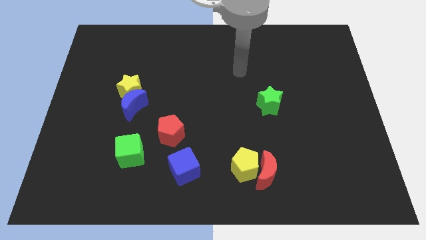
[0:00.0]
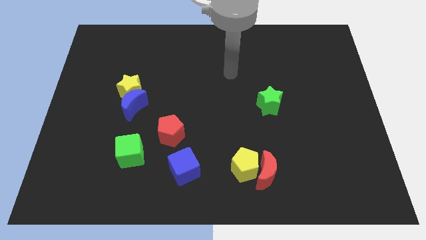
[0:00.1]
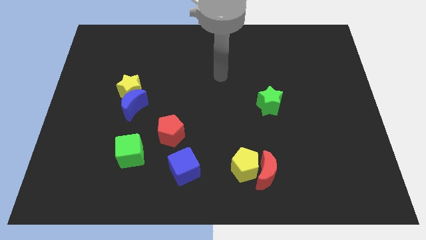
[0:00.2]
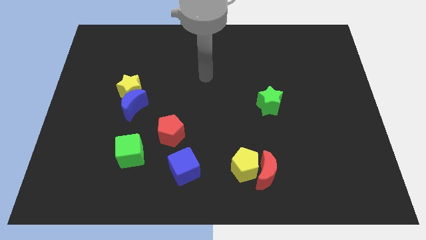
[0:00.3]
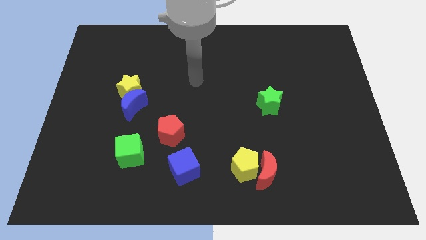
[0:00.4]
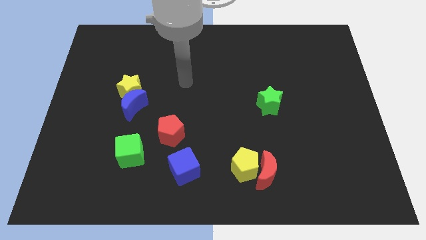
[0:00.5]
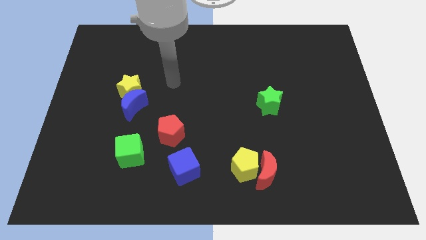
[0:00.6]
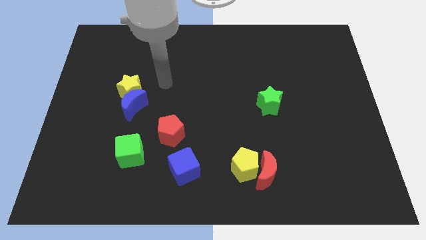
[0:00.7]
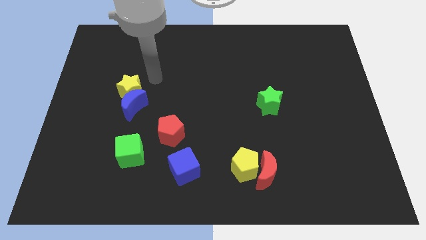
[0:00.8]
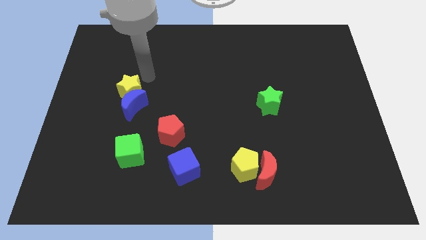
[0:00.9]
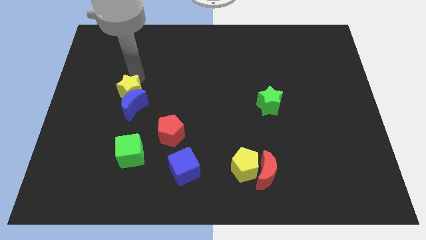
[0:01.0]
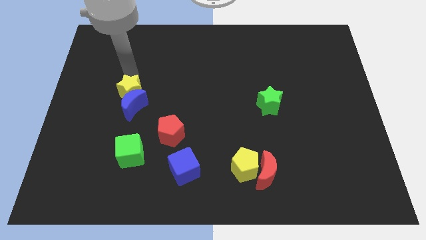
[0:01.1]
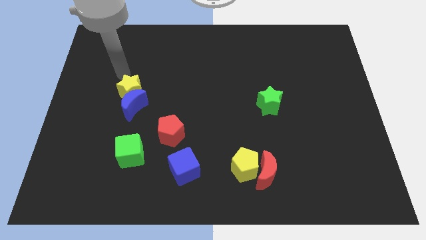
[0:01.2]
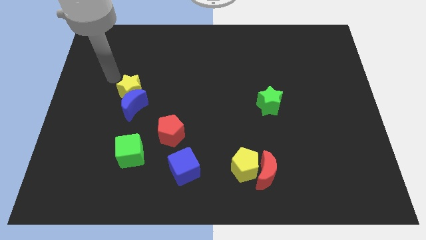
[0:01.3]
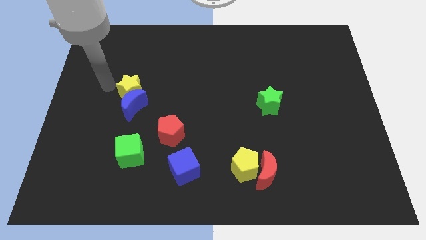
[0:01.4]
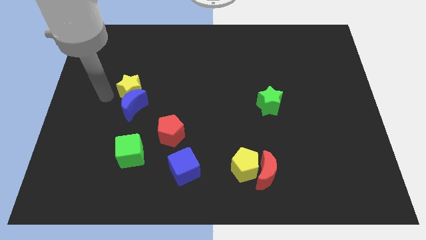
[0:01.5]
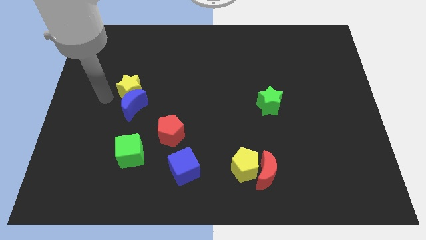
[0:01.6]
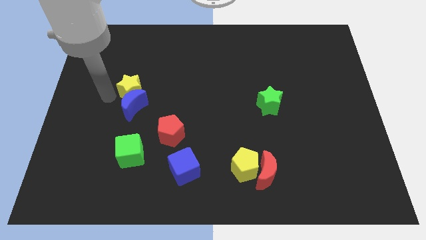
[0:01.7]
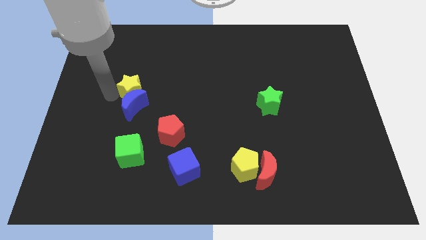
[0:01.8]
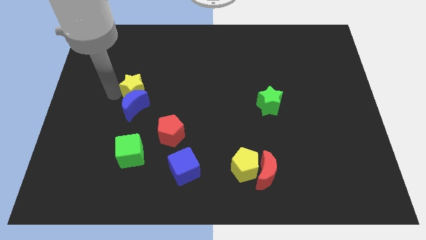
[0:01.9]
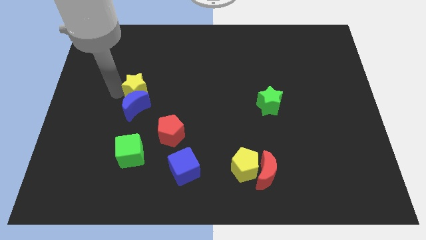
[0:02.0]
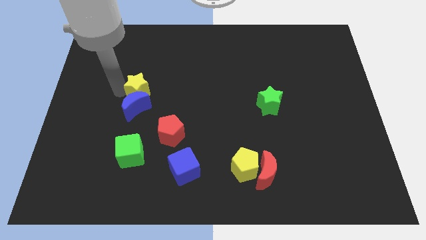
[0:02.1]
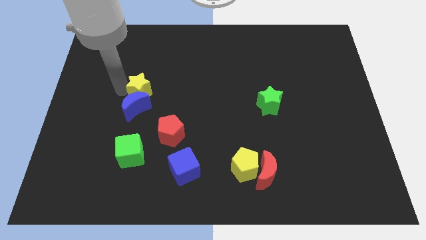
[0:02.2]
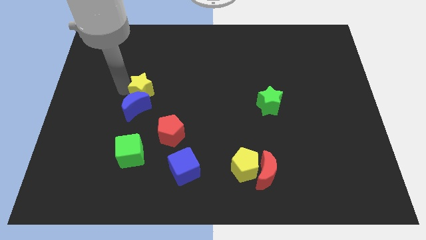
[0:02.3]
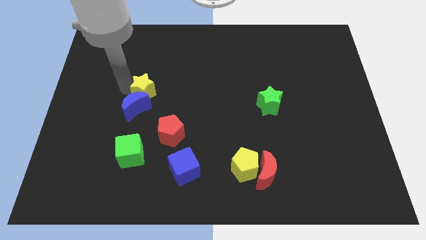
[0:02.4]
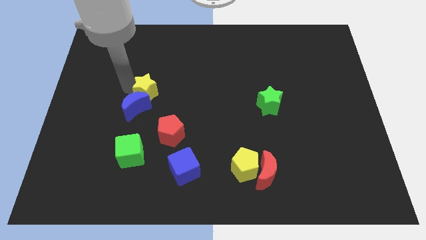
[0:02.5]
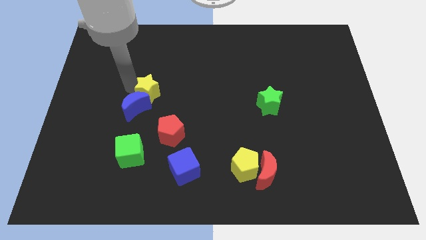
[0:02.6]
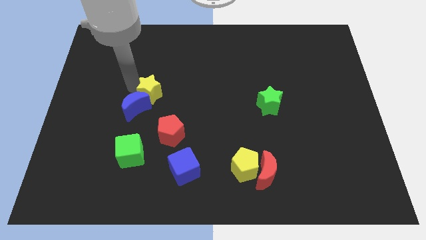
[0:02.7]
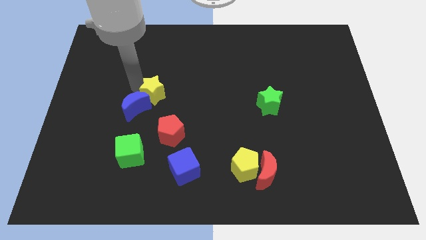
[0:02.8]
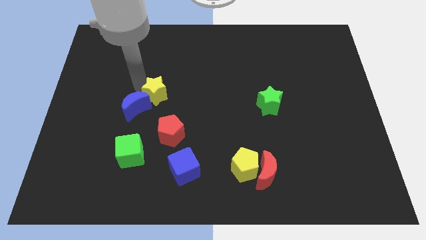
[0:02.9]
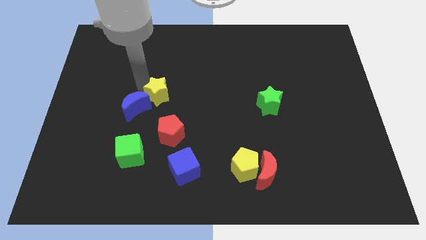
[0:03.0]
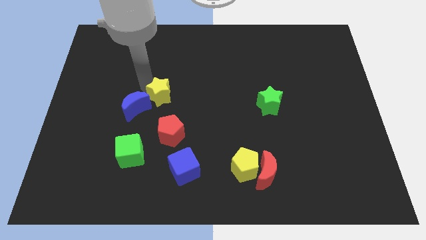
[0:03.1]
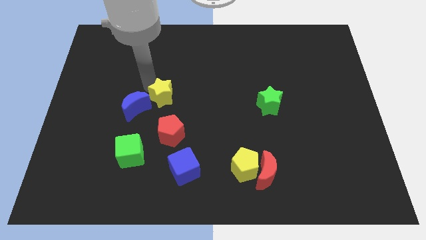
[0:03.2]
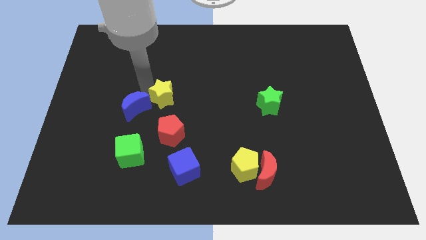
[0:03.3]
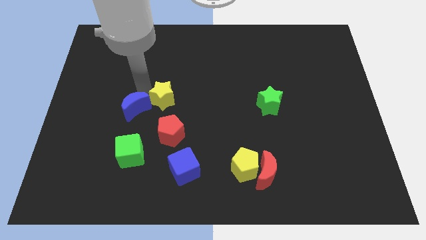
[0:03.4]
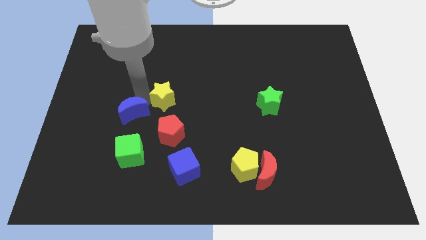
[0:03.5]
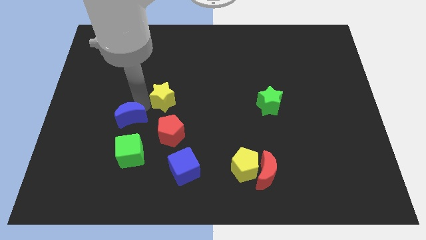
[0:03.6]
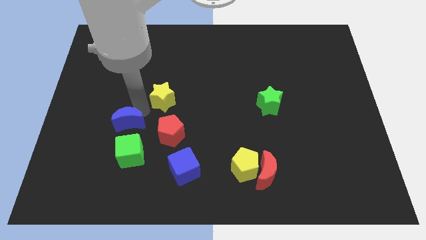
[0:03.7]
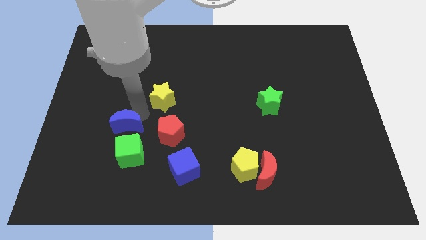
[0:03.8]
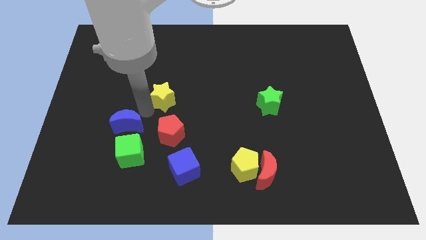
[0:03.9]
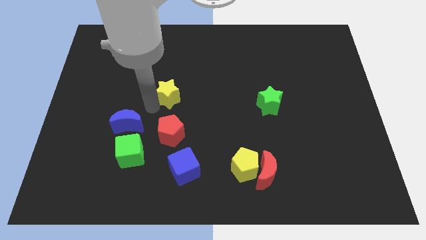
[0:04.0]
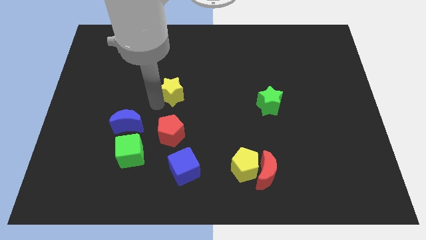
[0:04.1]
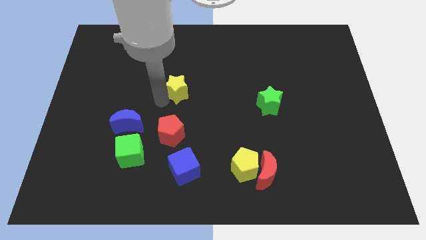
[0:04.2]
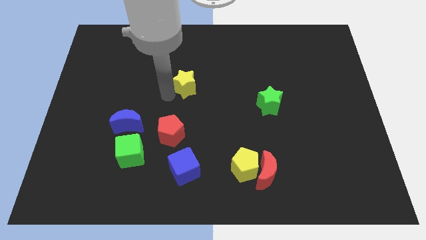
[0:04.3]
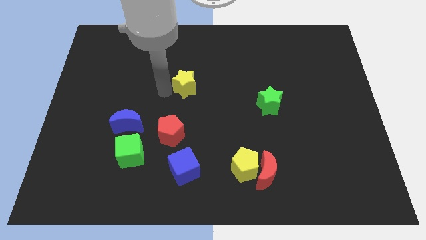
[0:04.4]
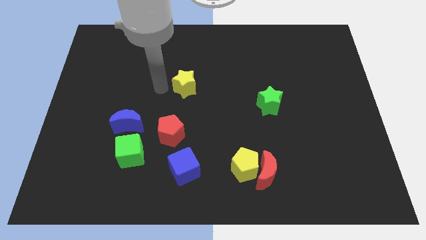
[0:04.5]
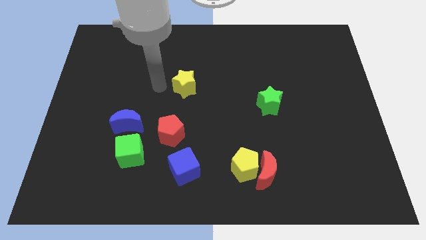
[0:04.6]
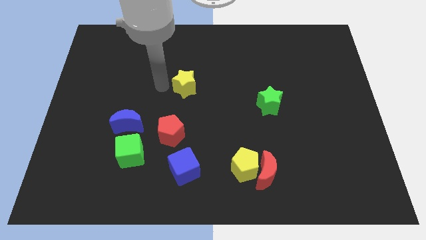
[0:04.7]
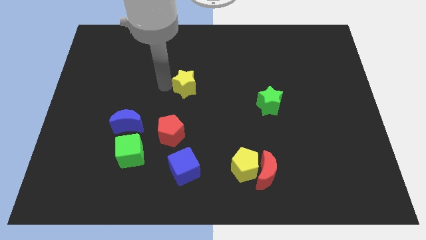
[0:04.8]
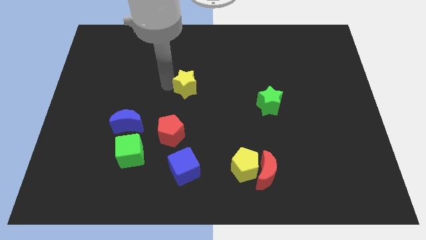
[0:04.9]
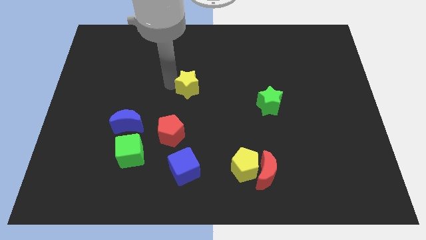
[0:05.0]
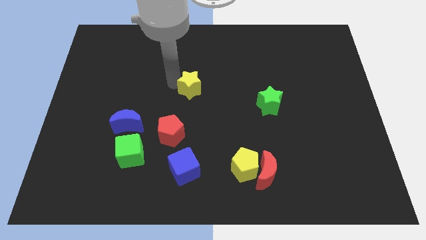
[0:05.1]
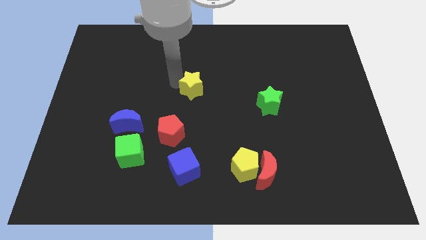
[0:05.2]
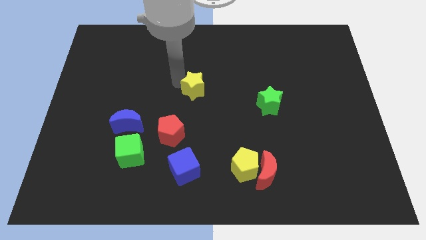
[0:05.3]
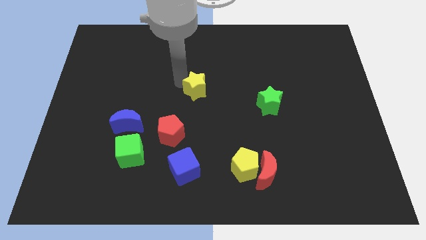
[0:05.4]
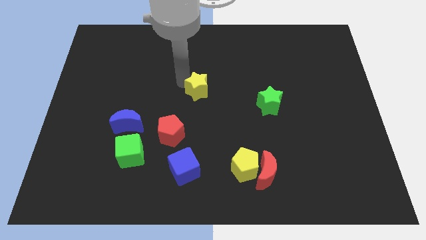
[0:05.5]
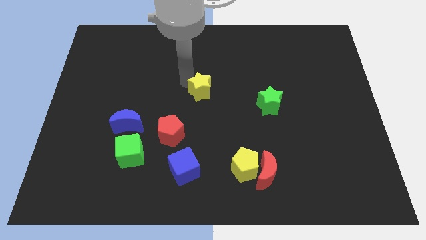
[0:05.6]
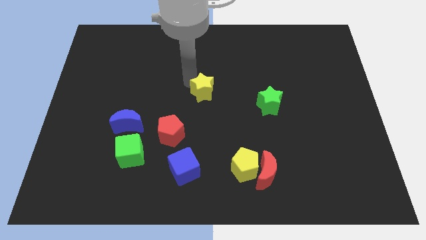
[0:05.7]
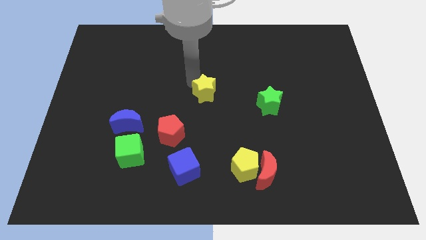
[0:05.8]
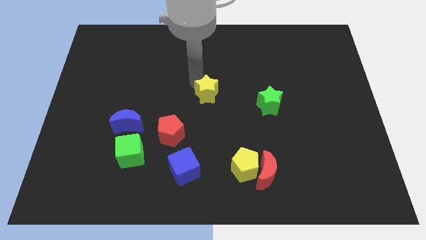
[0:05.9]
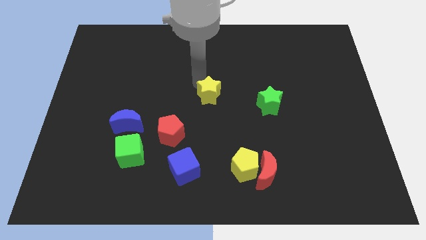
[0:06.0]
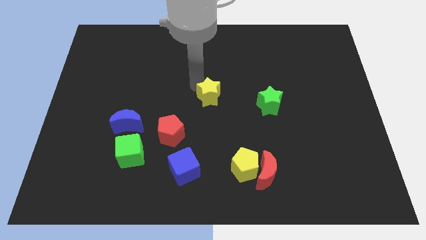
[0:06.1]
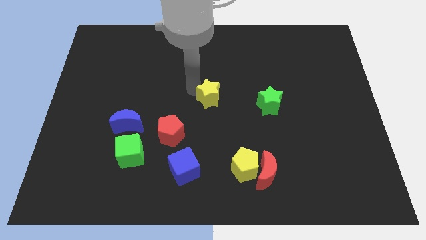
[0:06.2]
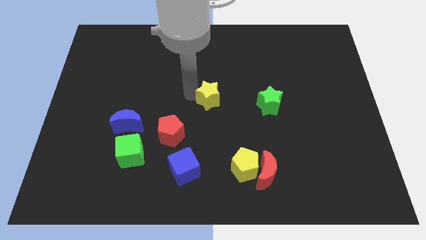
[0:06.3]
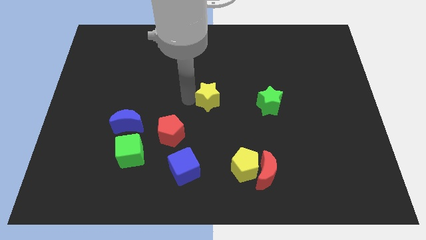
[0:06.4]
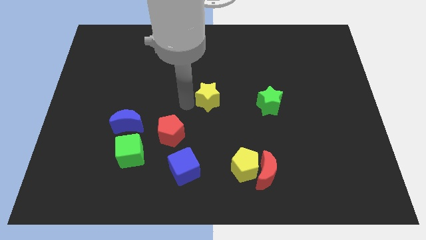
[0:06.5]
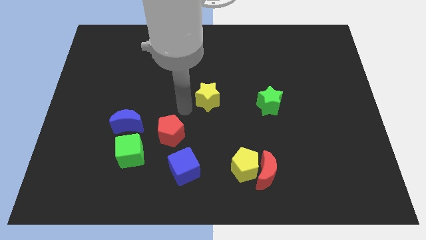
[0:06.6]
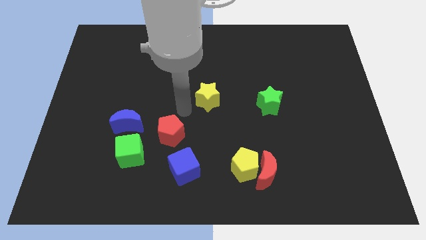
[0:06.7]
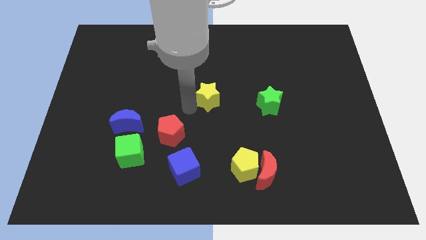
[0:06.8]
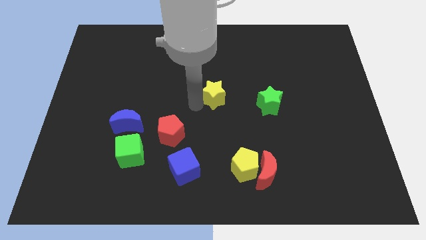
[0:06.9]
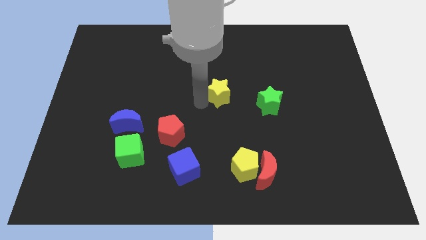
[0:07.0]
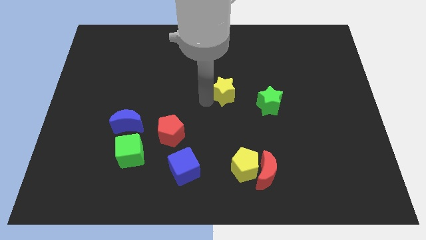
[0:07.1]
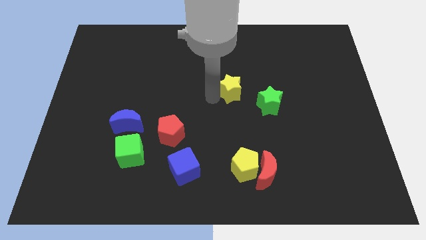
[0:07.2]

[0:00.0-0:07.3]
push the yellow star to the top left of the green star
